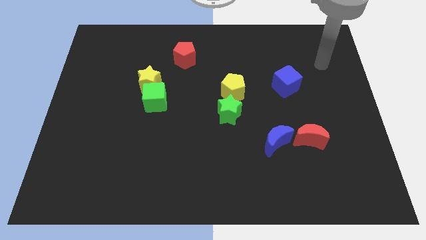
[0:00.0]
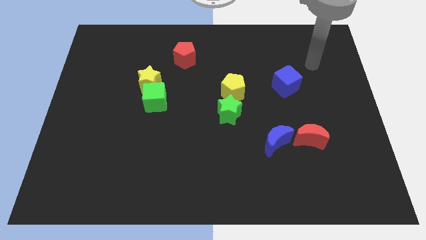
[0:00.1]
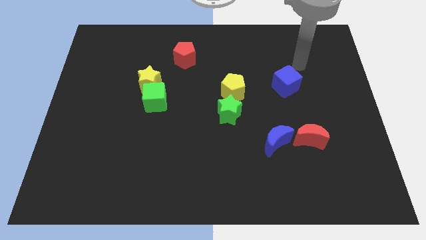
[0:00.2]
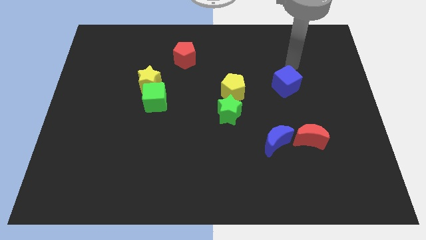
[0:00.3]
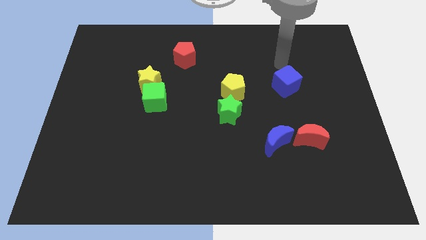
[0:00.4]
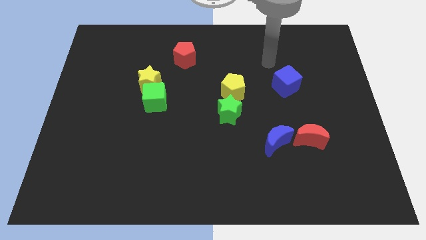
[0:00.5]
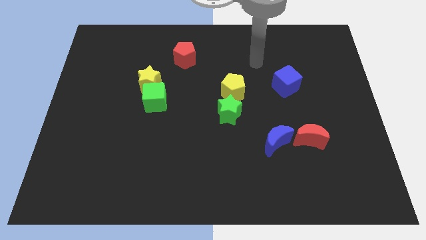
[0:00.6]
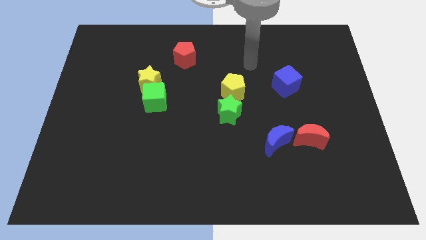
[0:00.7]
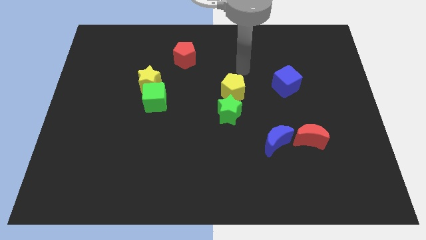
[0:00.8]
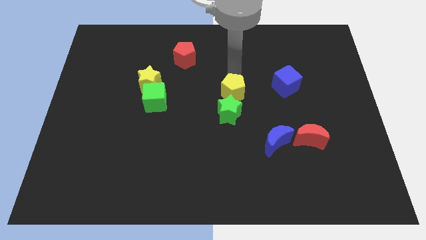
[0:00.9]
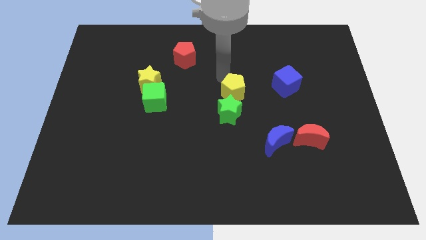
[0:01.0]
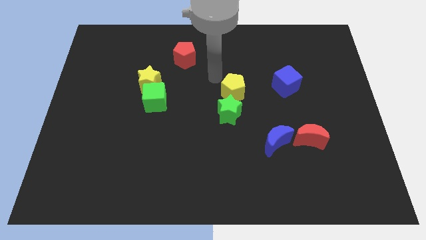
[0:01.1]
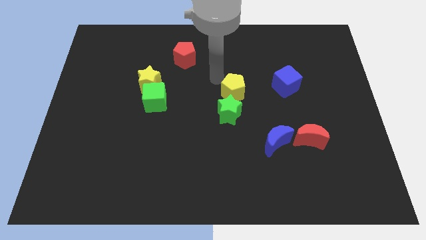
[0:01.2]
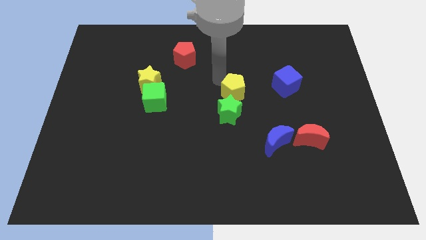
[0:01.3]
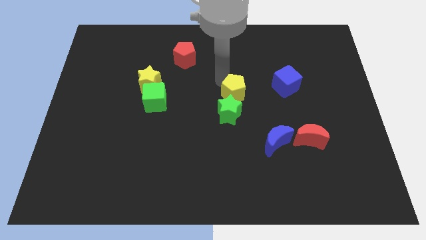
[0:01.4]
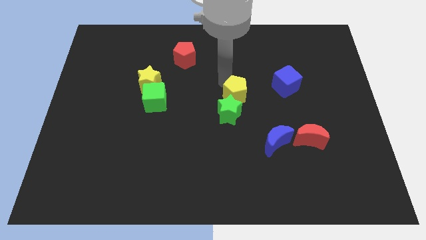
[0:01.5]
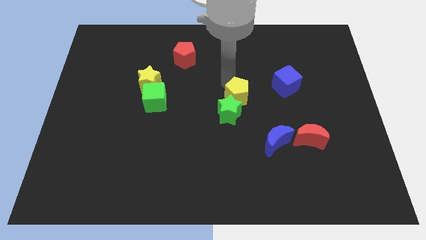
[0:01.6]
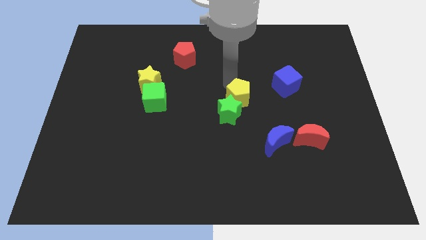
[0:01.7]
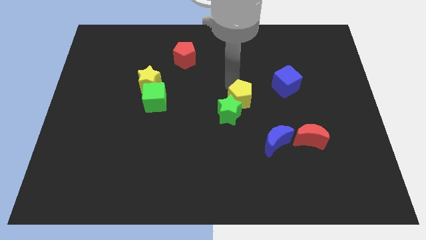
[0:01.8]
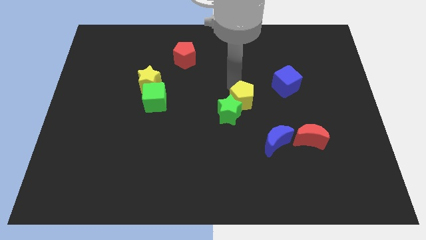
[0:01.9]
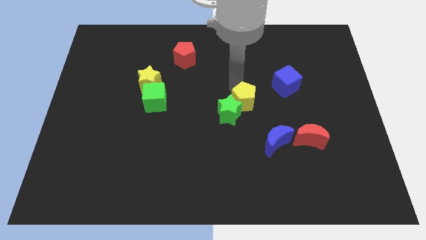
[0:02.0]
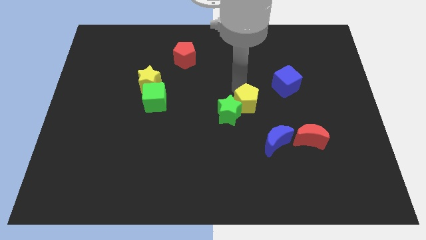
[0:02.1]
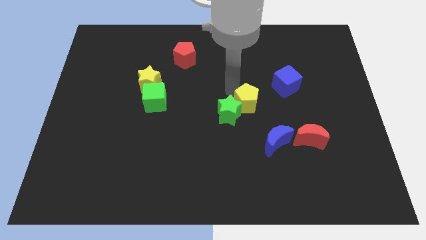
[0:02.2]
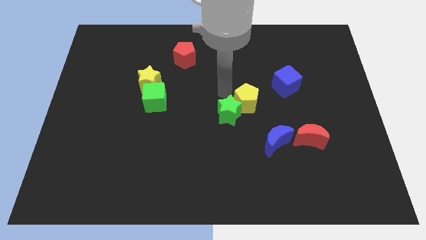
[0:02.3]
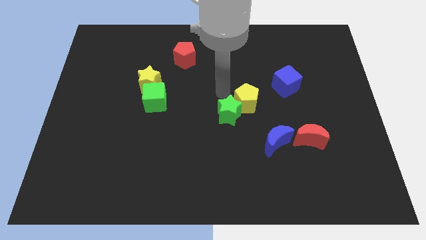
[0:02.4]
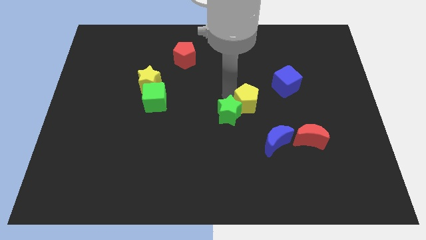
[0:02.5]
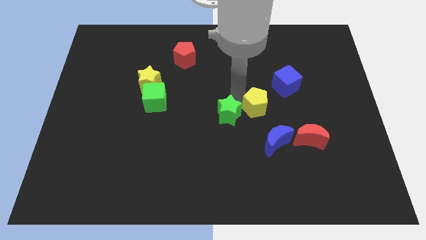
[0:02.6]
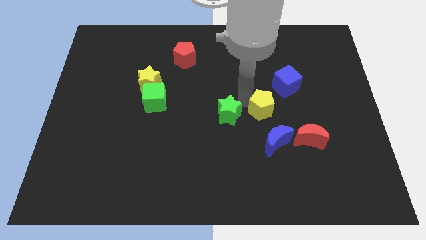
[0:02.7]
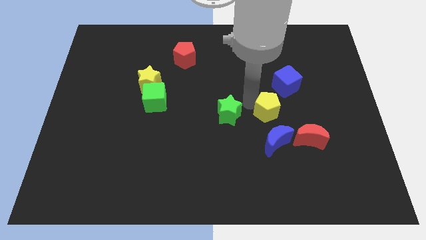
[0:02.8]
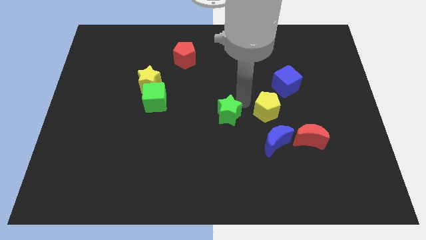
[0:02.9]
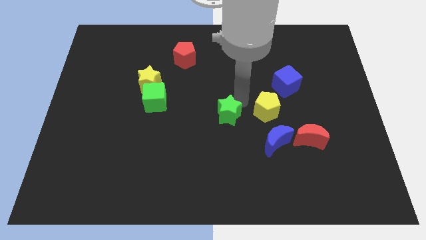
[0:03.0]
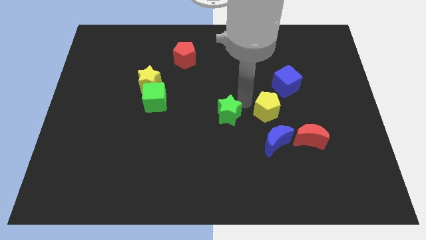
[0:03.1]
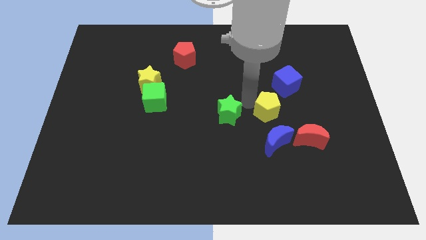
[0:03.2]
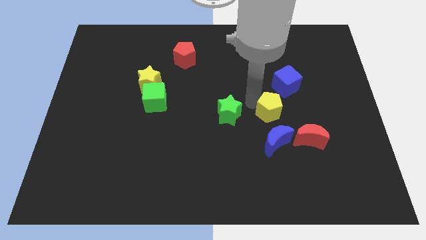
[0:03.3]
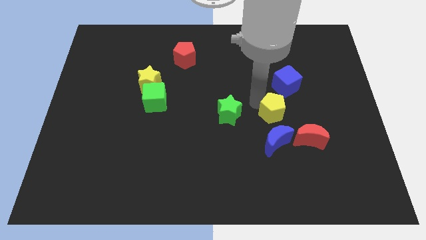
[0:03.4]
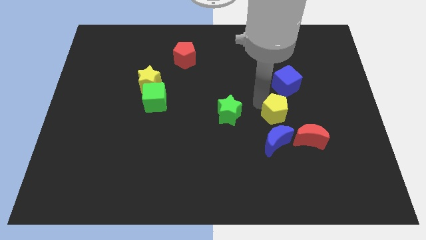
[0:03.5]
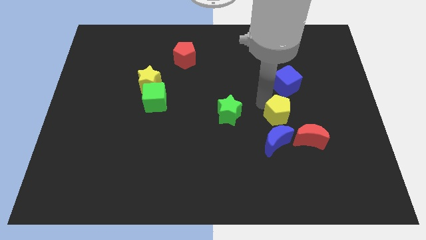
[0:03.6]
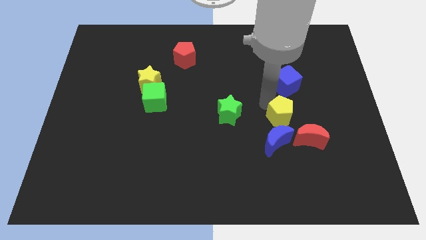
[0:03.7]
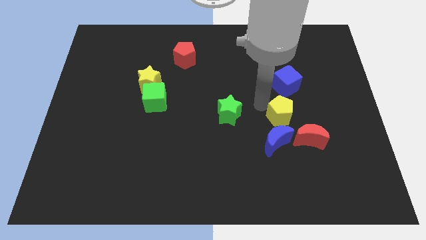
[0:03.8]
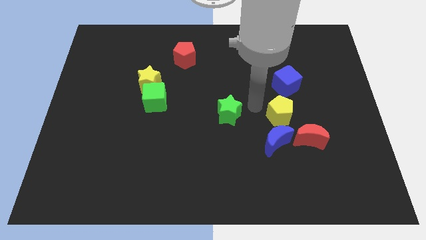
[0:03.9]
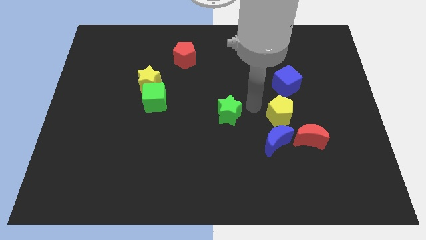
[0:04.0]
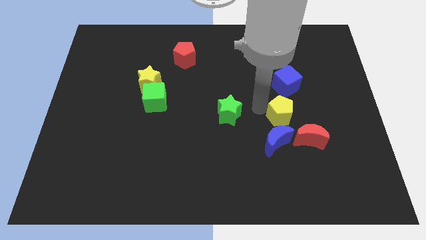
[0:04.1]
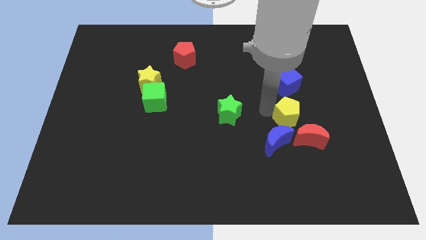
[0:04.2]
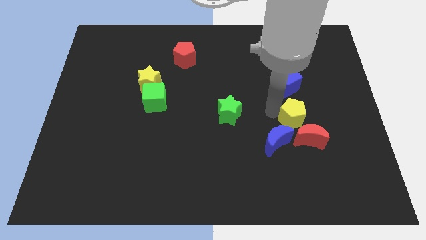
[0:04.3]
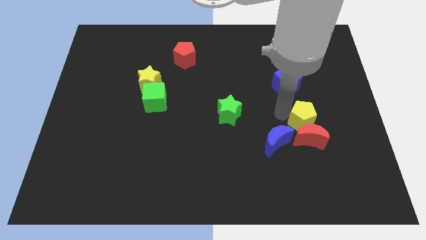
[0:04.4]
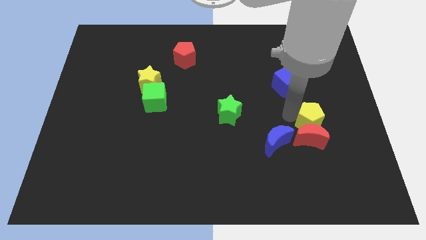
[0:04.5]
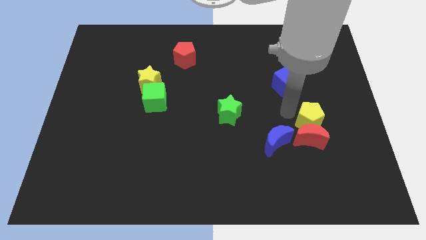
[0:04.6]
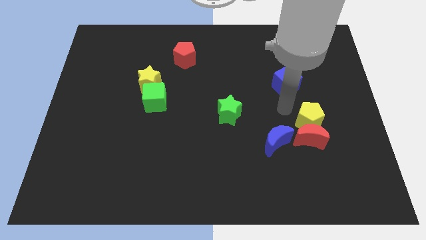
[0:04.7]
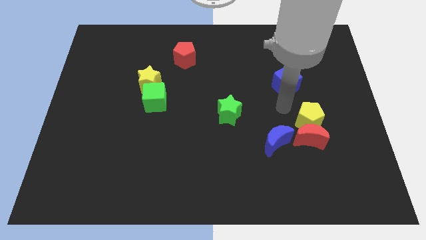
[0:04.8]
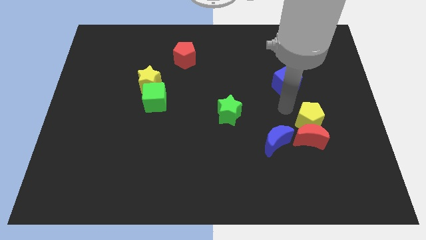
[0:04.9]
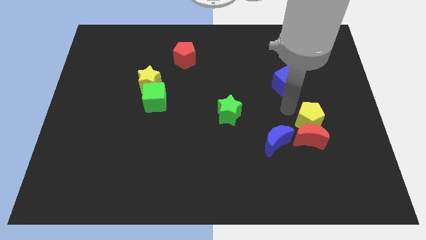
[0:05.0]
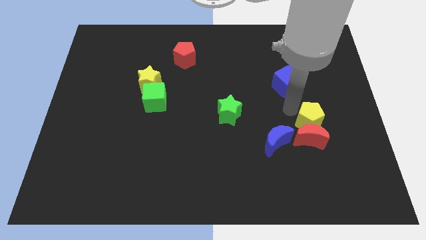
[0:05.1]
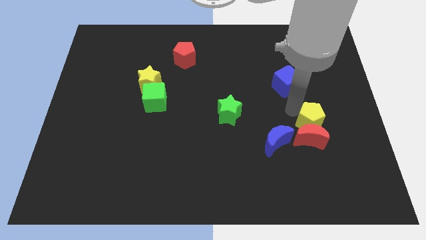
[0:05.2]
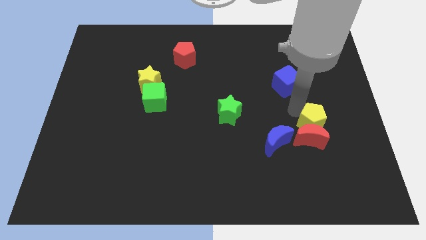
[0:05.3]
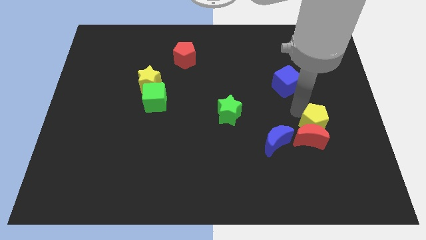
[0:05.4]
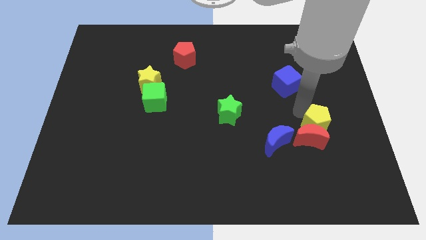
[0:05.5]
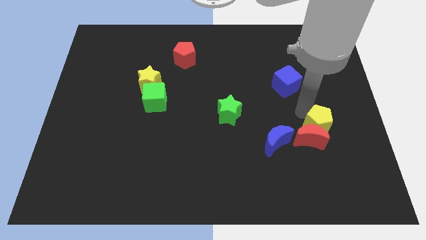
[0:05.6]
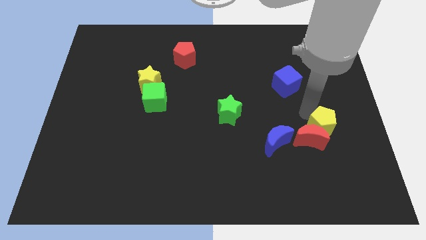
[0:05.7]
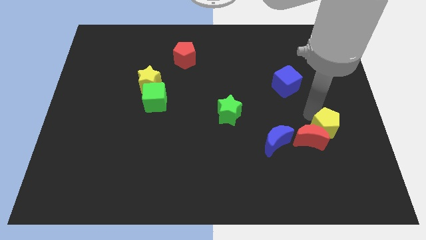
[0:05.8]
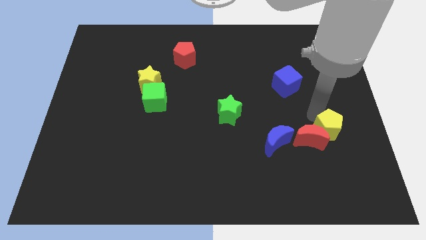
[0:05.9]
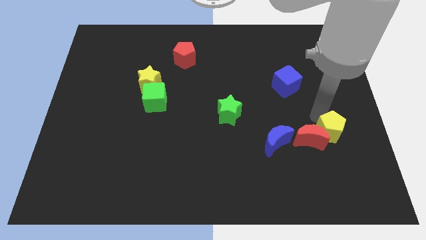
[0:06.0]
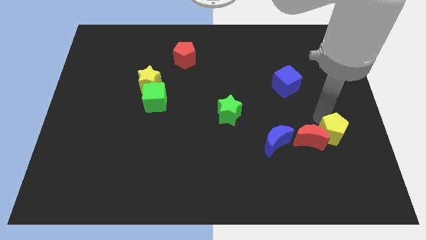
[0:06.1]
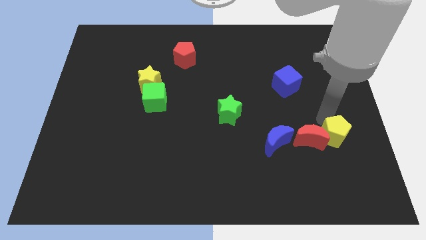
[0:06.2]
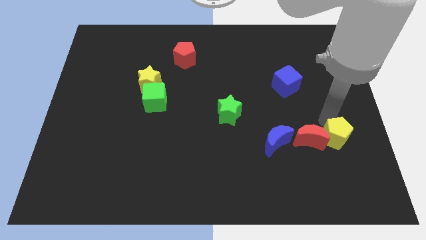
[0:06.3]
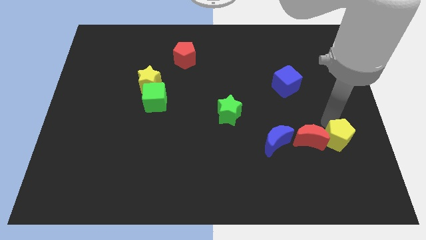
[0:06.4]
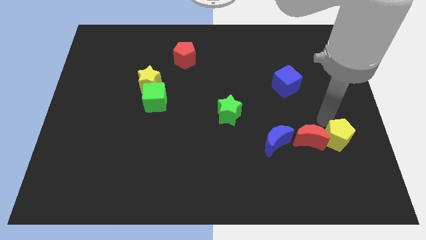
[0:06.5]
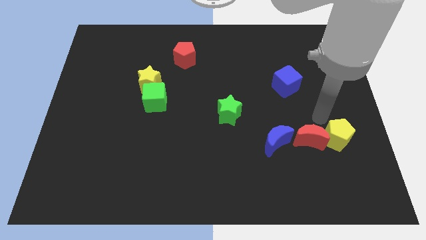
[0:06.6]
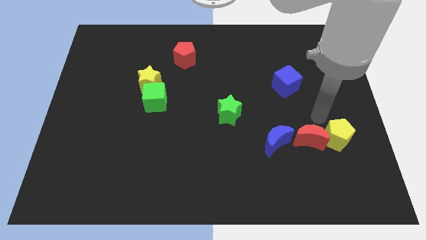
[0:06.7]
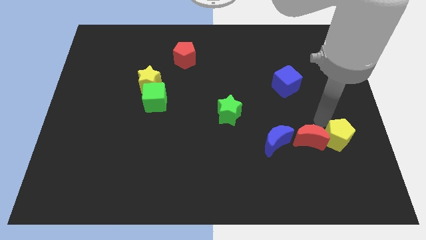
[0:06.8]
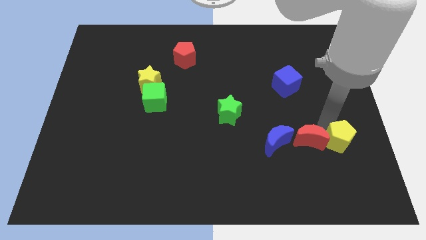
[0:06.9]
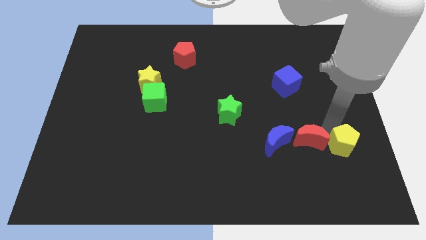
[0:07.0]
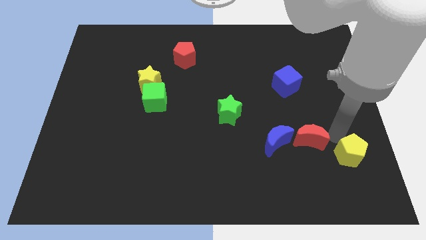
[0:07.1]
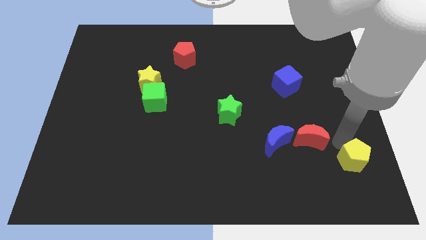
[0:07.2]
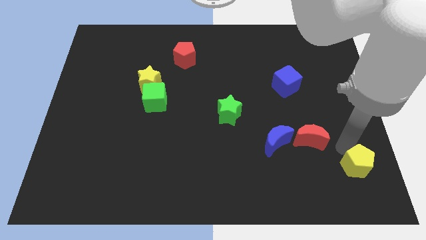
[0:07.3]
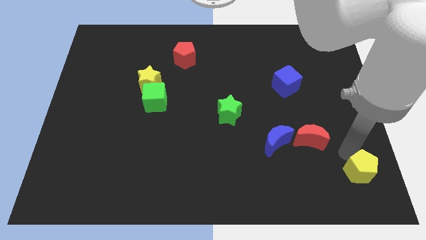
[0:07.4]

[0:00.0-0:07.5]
move the yellow pentagon to the bottom right corner
